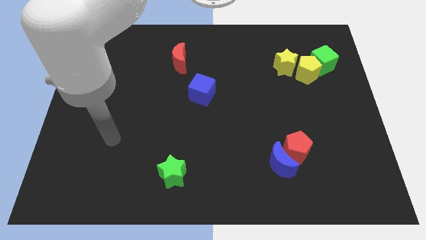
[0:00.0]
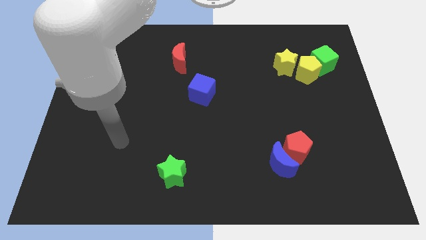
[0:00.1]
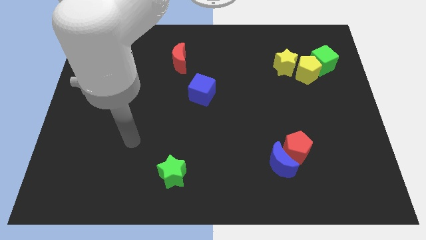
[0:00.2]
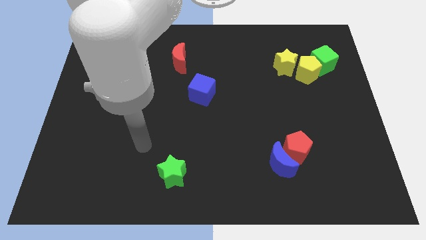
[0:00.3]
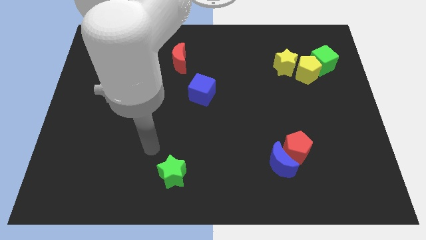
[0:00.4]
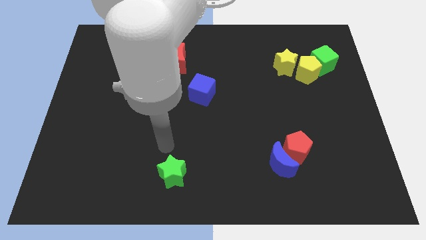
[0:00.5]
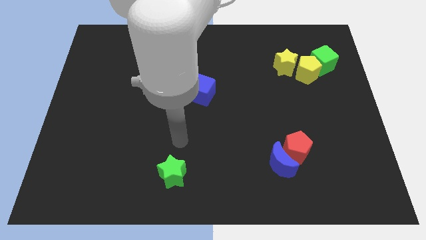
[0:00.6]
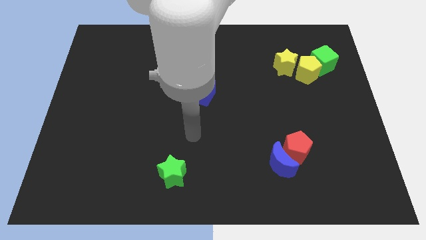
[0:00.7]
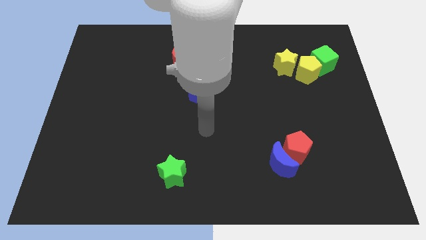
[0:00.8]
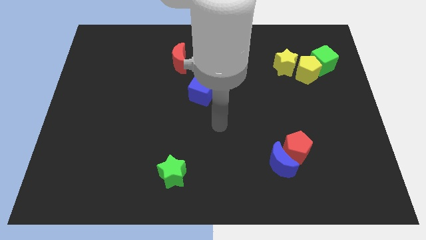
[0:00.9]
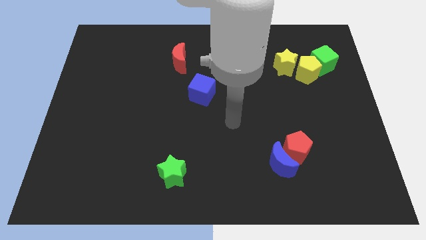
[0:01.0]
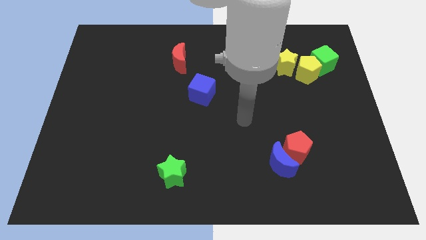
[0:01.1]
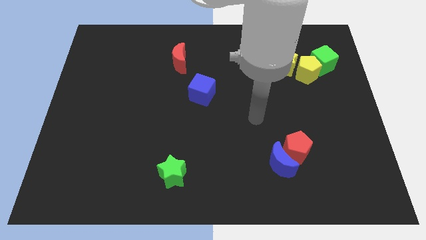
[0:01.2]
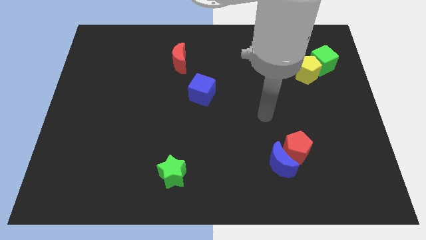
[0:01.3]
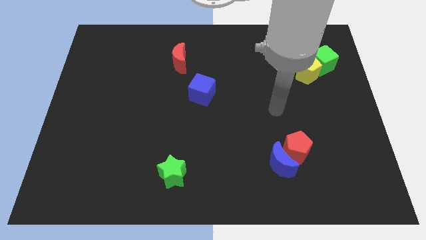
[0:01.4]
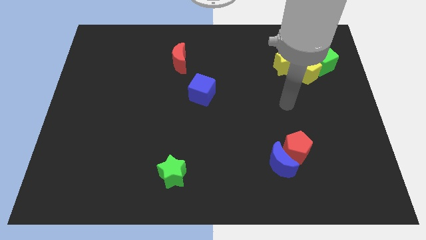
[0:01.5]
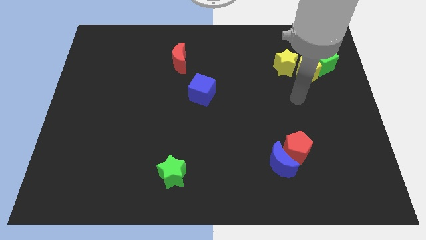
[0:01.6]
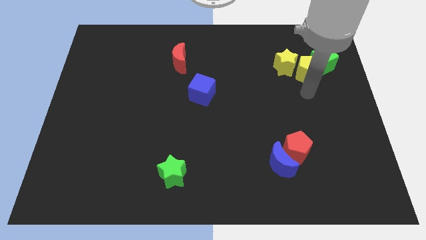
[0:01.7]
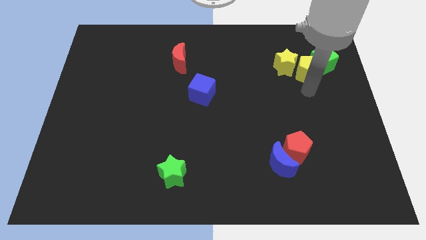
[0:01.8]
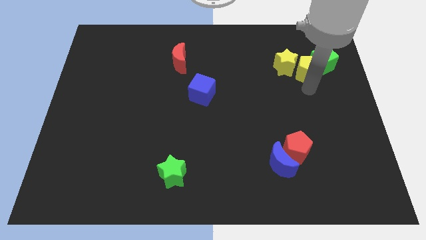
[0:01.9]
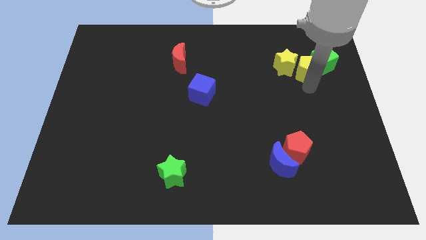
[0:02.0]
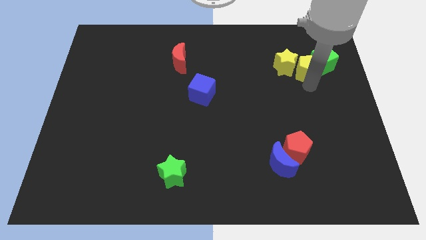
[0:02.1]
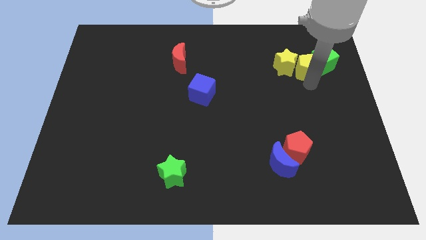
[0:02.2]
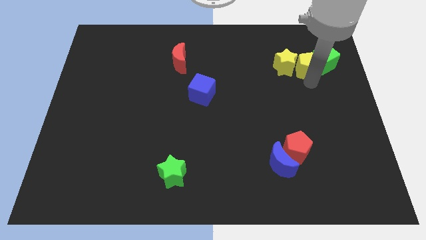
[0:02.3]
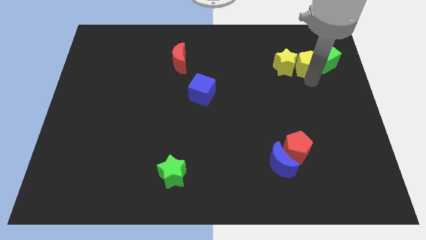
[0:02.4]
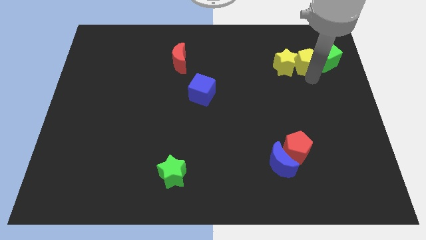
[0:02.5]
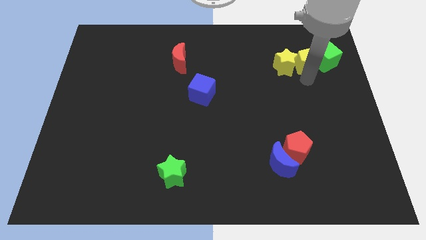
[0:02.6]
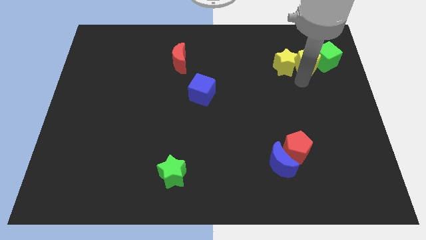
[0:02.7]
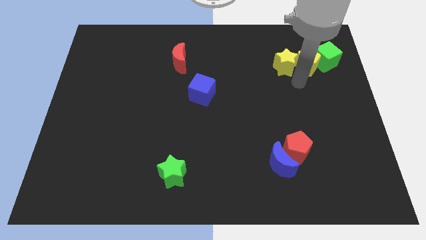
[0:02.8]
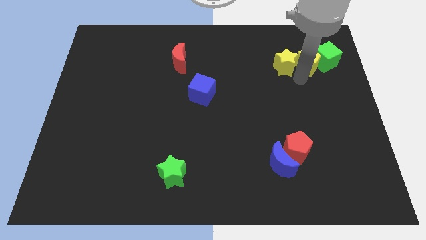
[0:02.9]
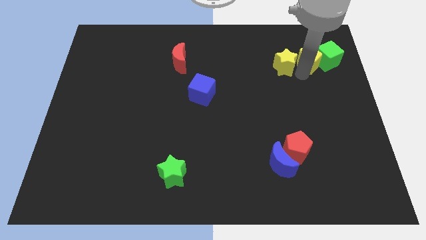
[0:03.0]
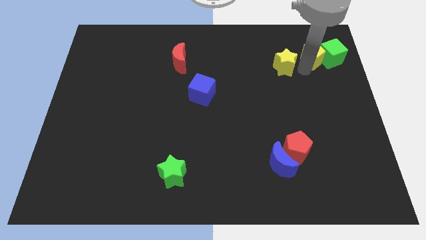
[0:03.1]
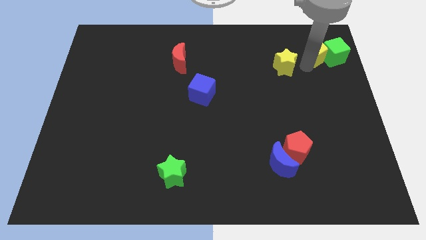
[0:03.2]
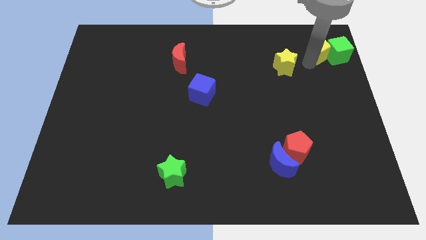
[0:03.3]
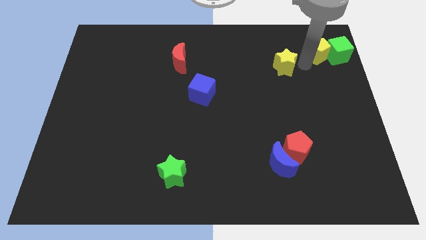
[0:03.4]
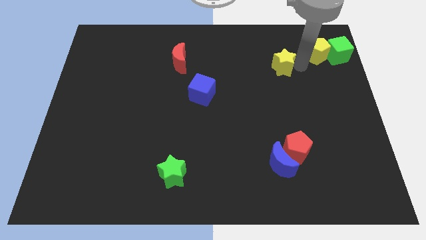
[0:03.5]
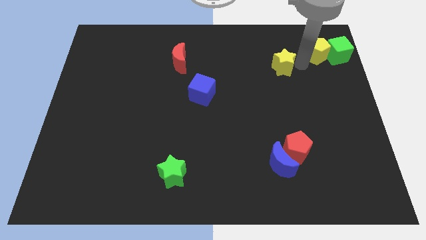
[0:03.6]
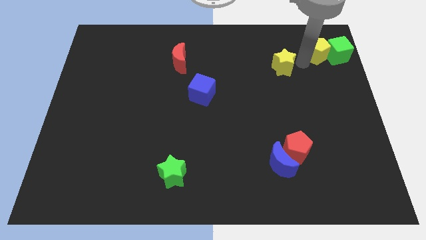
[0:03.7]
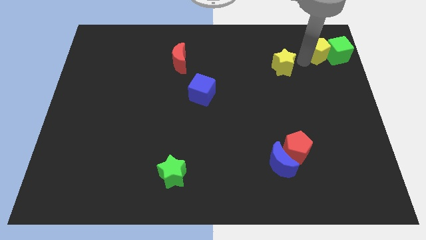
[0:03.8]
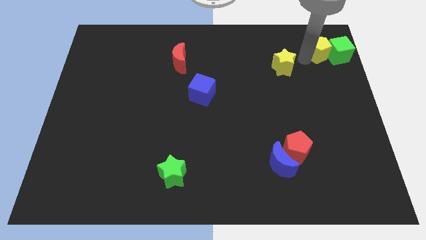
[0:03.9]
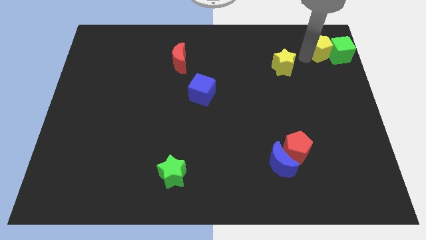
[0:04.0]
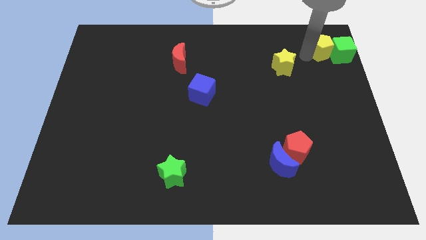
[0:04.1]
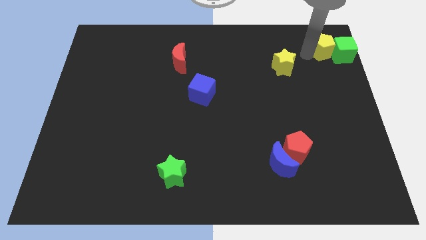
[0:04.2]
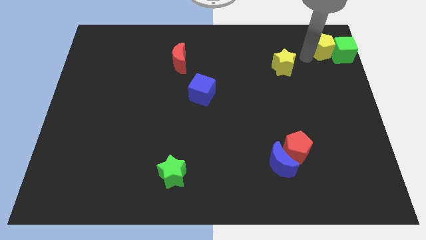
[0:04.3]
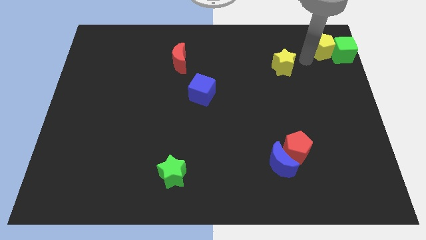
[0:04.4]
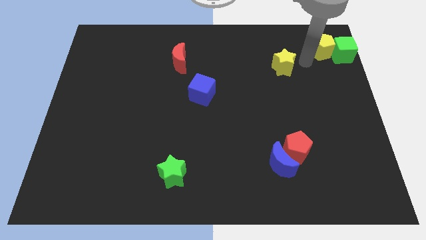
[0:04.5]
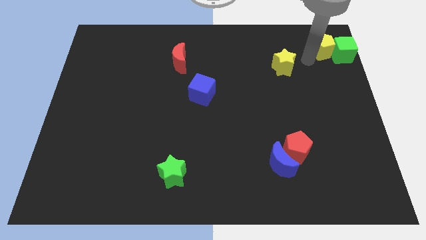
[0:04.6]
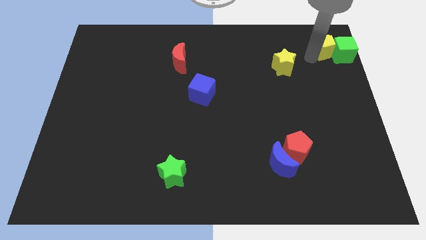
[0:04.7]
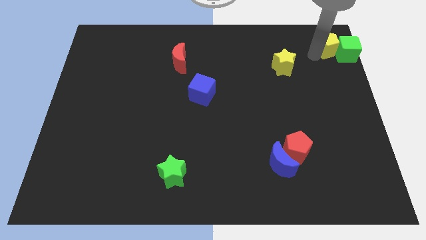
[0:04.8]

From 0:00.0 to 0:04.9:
put the yellow pentagon to the top right corner

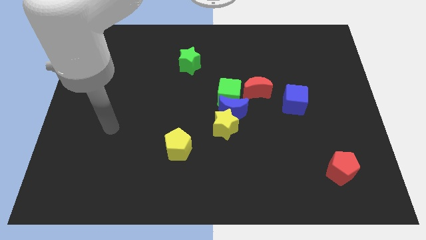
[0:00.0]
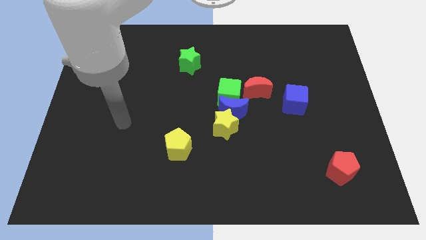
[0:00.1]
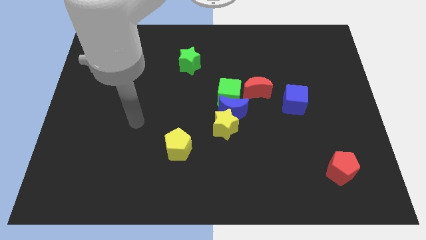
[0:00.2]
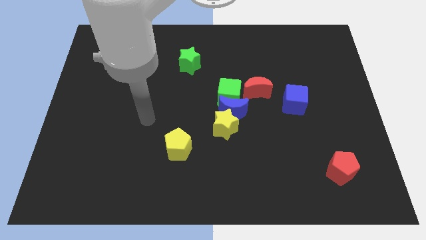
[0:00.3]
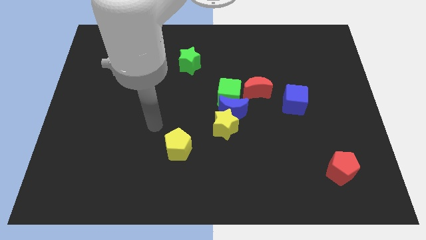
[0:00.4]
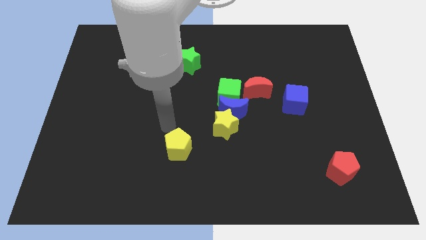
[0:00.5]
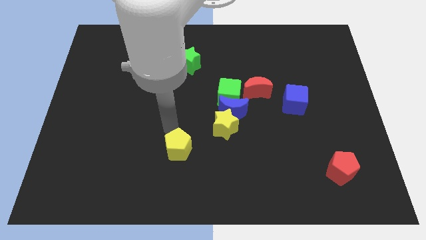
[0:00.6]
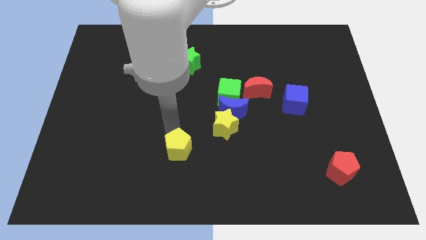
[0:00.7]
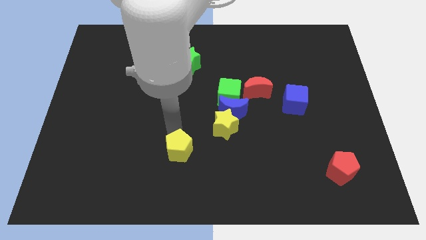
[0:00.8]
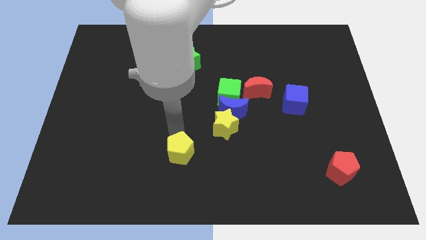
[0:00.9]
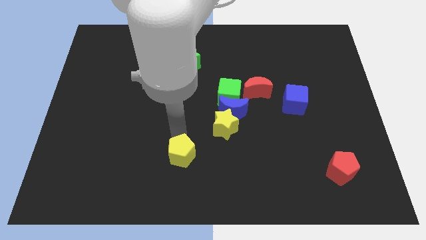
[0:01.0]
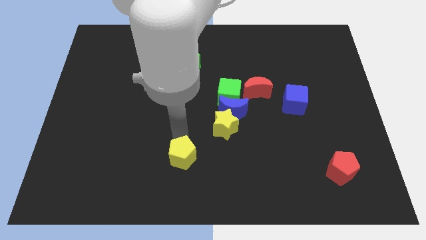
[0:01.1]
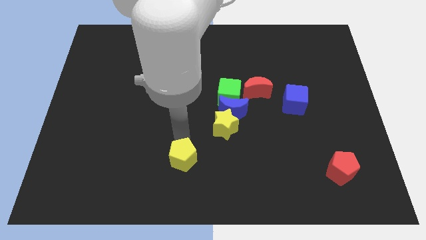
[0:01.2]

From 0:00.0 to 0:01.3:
put the yellow pentagon to the bottom

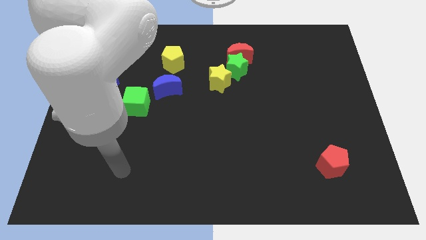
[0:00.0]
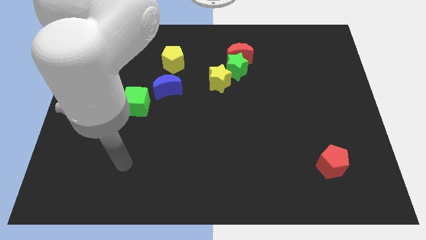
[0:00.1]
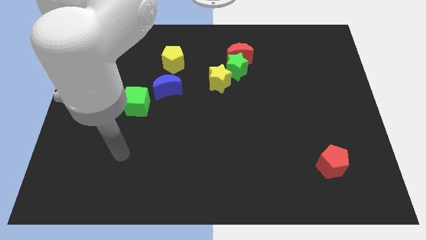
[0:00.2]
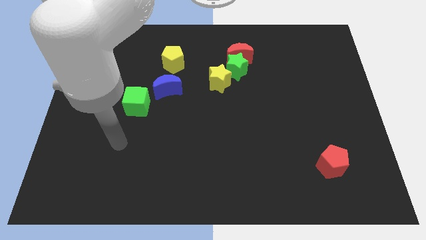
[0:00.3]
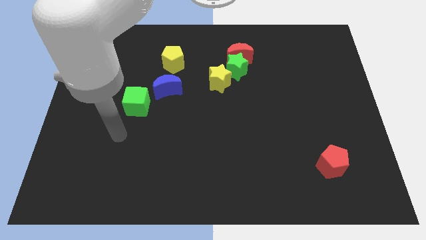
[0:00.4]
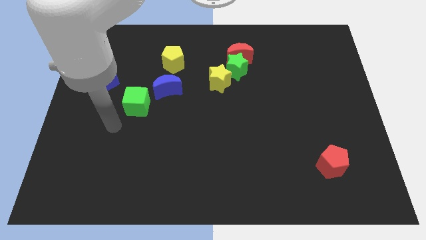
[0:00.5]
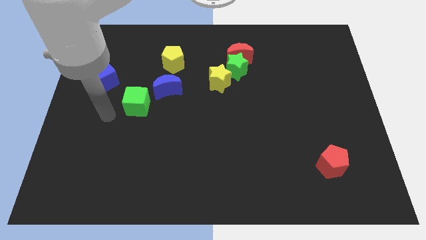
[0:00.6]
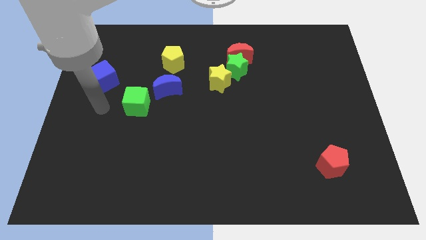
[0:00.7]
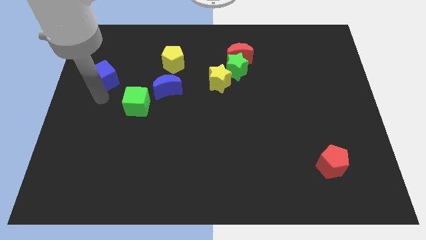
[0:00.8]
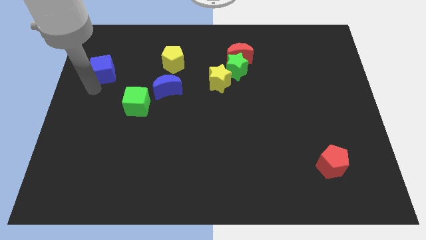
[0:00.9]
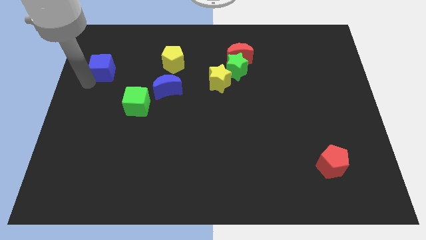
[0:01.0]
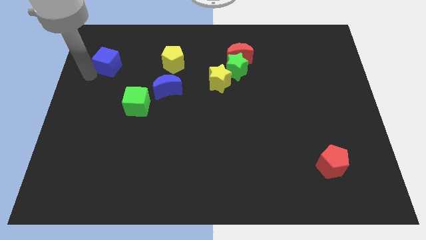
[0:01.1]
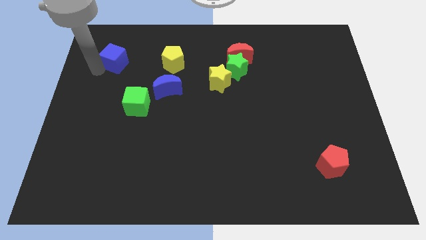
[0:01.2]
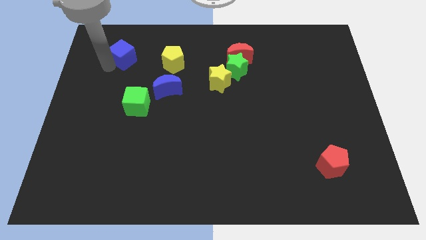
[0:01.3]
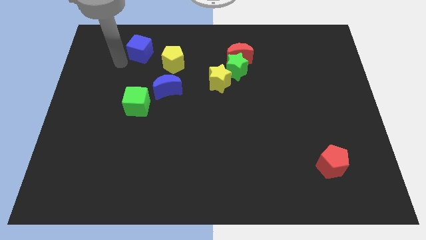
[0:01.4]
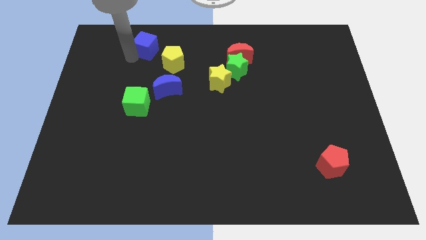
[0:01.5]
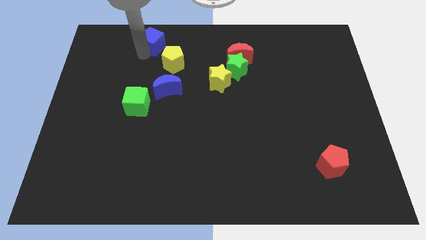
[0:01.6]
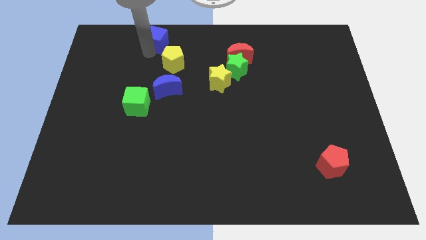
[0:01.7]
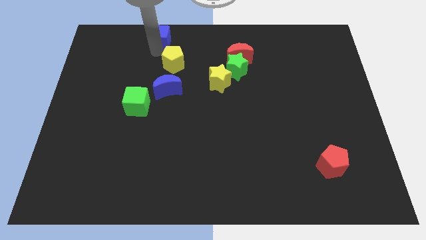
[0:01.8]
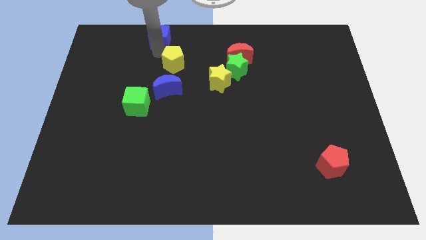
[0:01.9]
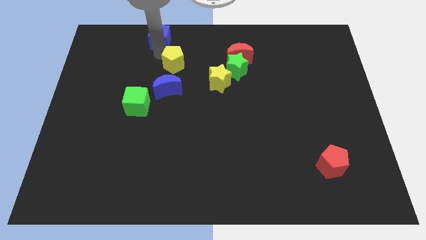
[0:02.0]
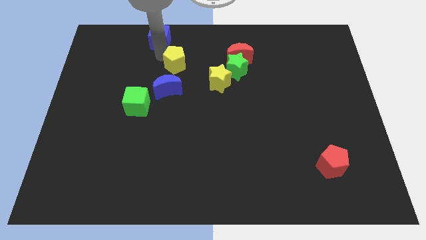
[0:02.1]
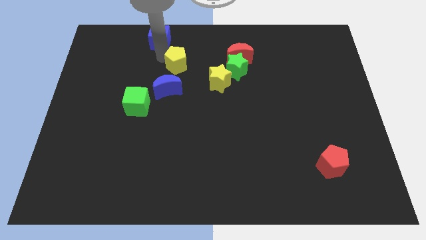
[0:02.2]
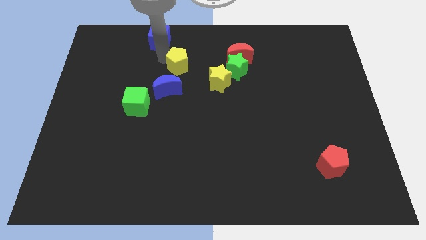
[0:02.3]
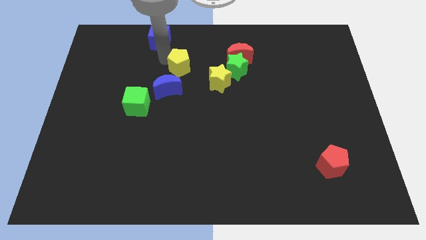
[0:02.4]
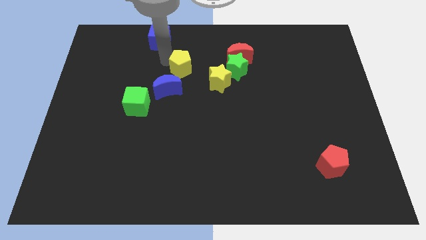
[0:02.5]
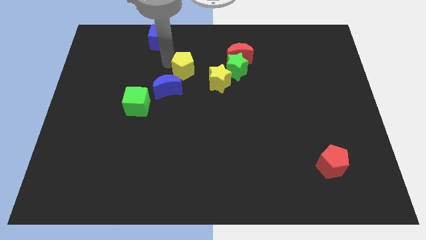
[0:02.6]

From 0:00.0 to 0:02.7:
move the yellow pentagon to the middle
